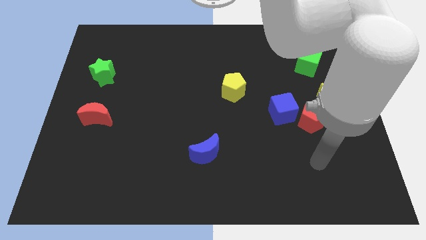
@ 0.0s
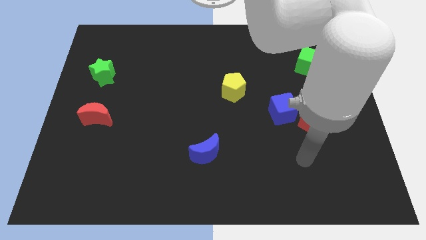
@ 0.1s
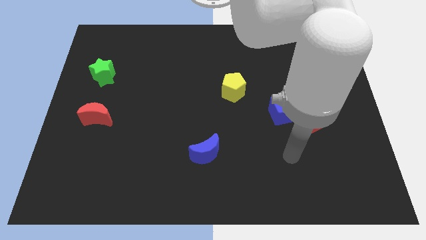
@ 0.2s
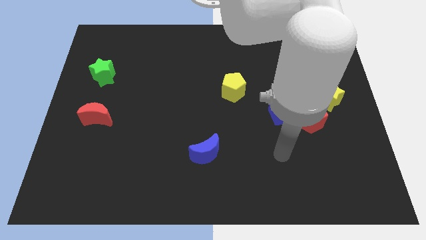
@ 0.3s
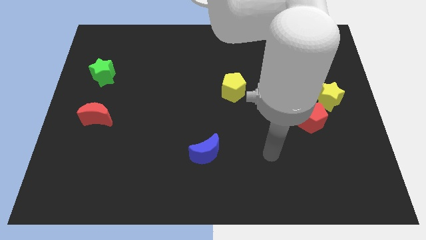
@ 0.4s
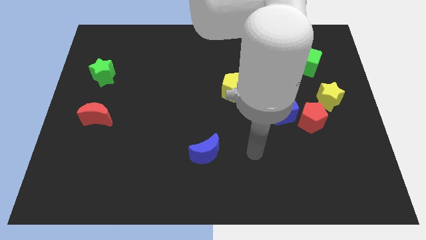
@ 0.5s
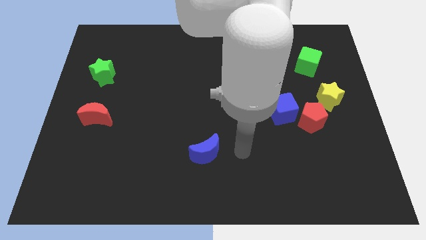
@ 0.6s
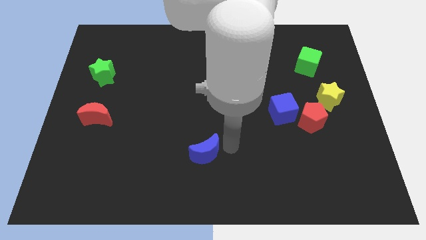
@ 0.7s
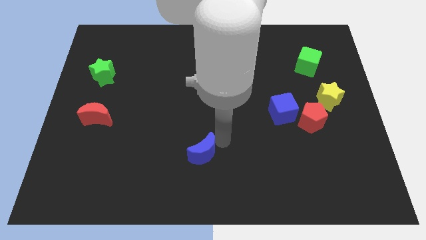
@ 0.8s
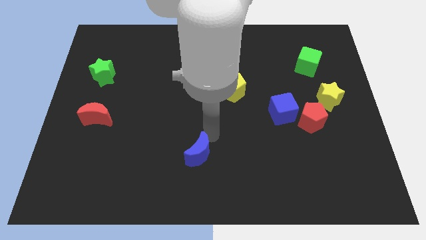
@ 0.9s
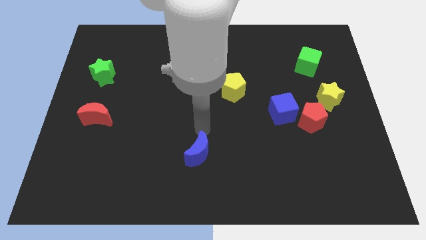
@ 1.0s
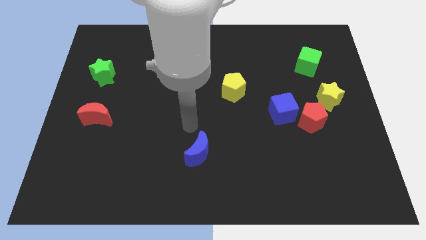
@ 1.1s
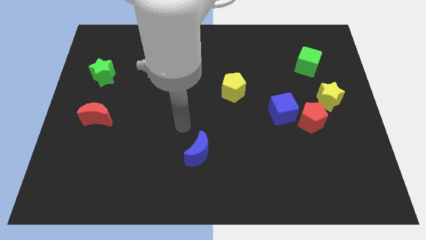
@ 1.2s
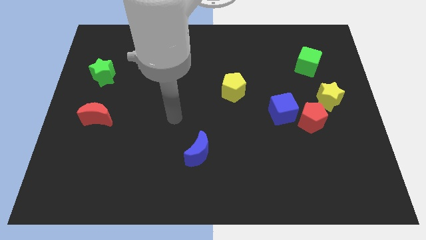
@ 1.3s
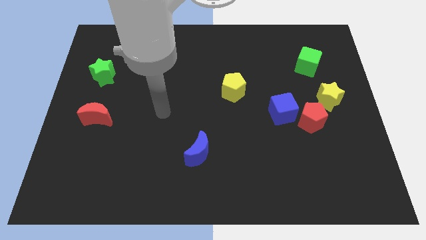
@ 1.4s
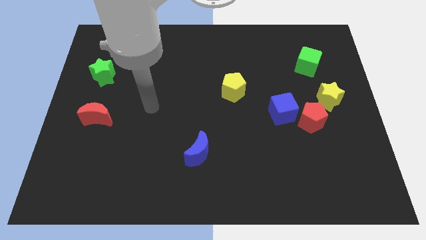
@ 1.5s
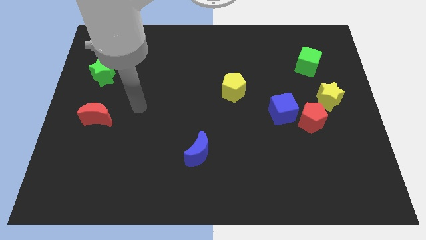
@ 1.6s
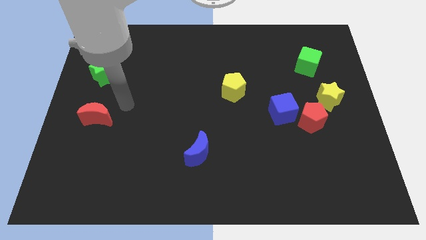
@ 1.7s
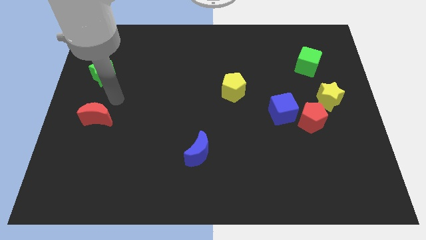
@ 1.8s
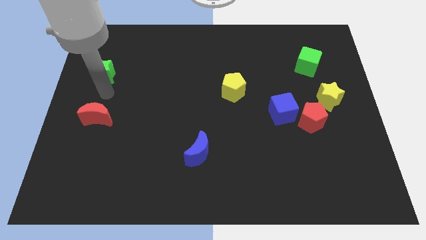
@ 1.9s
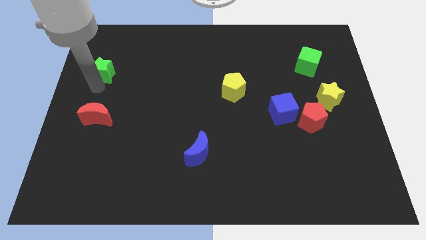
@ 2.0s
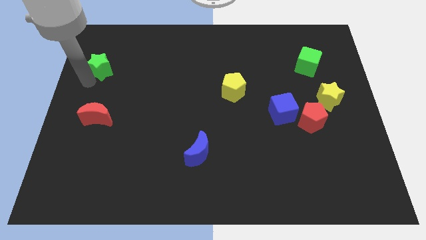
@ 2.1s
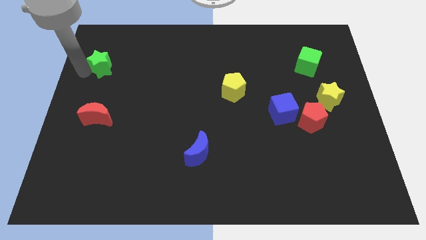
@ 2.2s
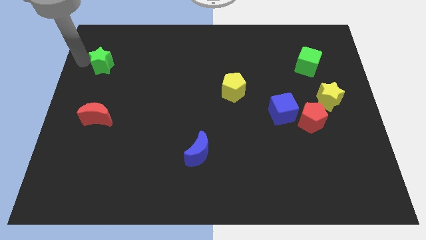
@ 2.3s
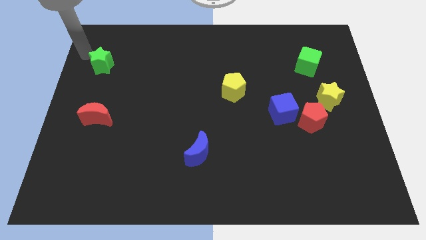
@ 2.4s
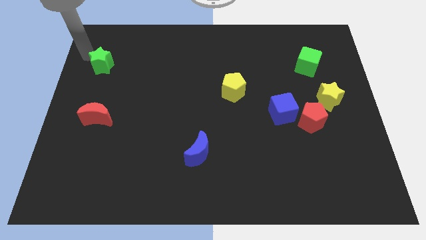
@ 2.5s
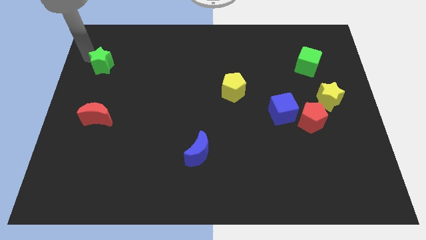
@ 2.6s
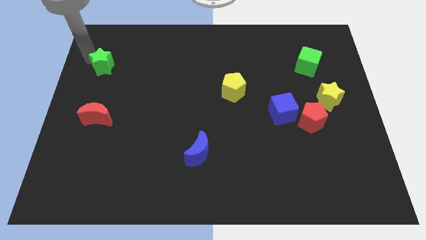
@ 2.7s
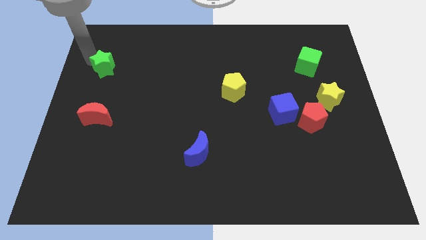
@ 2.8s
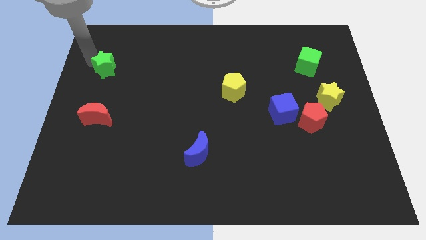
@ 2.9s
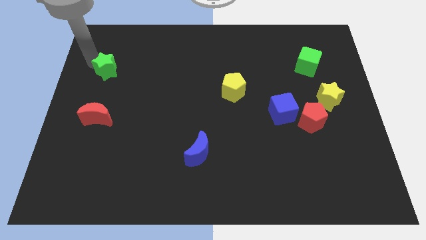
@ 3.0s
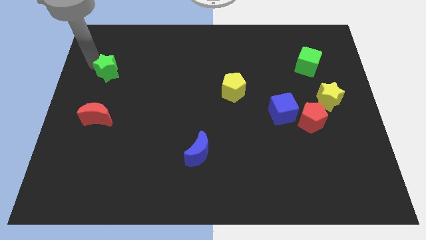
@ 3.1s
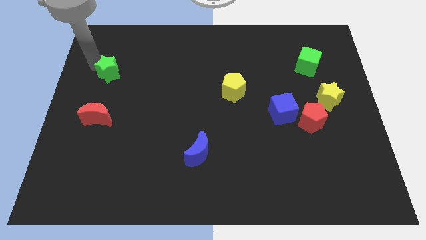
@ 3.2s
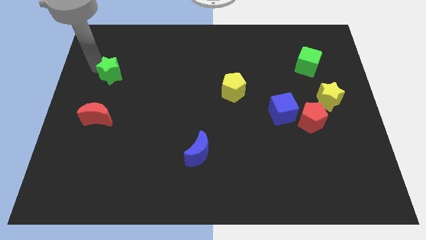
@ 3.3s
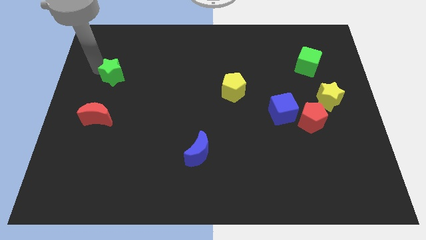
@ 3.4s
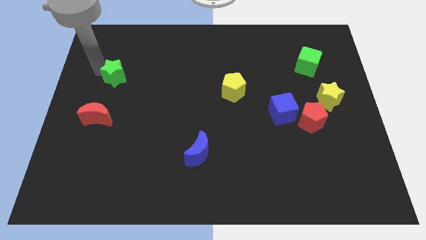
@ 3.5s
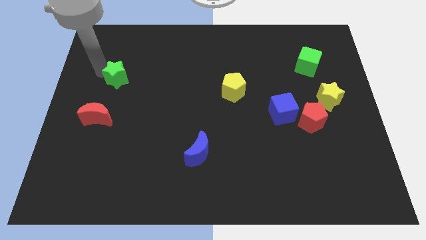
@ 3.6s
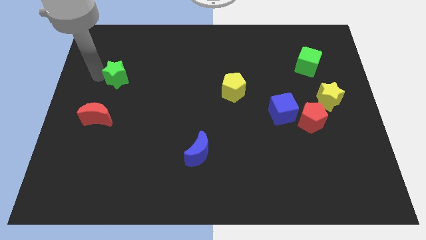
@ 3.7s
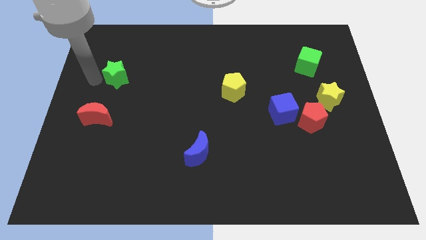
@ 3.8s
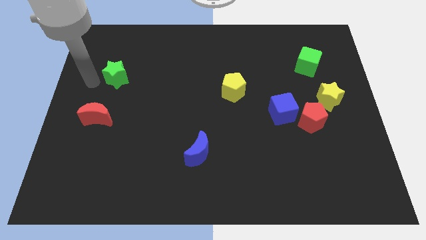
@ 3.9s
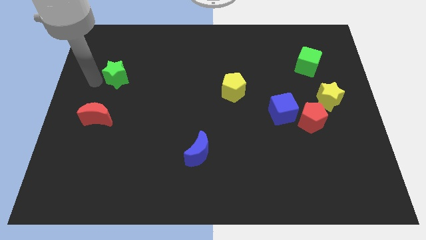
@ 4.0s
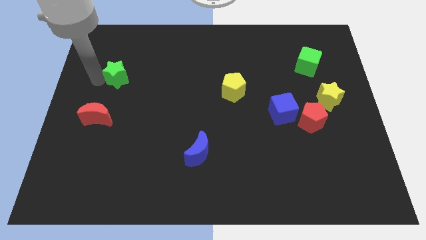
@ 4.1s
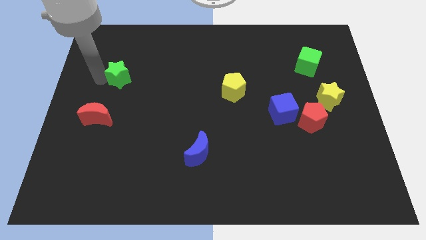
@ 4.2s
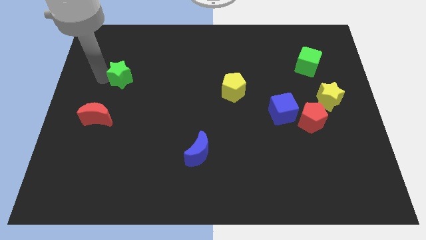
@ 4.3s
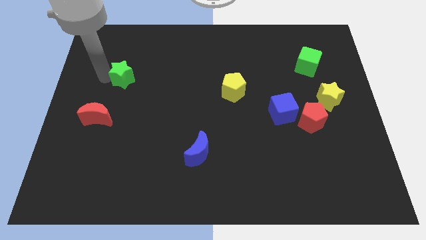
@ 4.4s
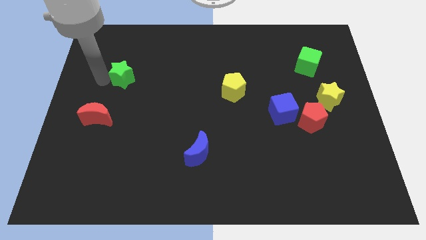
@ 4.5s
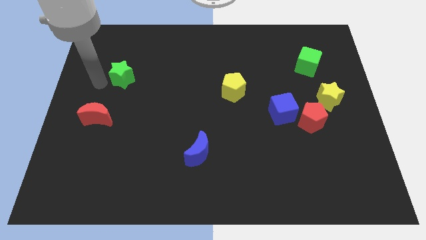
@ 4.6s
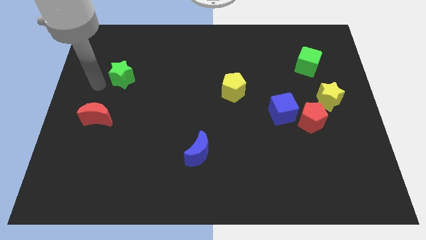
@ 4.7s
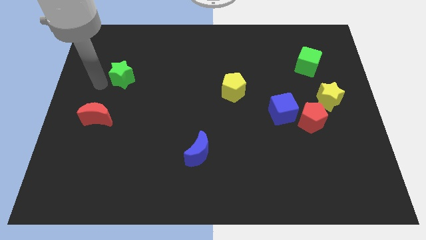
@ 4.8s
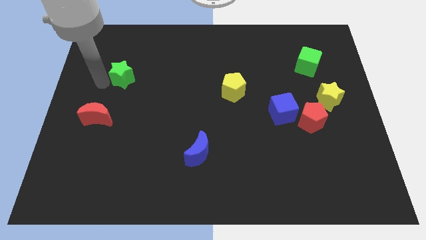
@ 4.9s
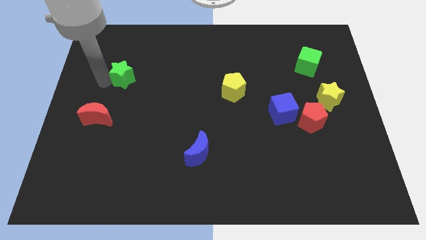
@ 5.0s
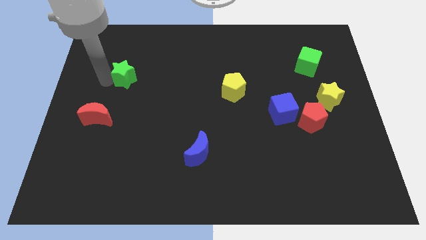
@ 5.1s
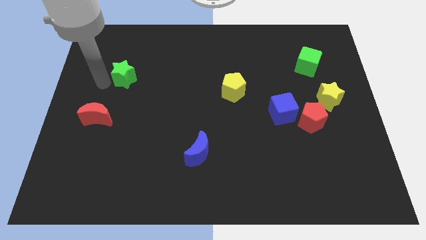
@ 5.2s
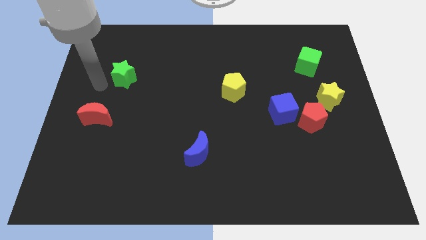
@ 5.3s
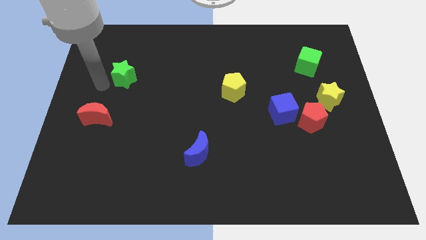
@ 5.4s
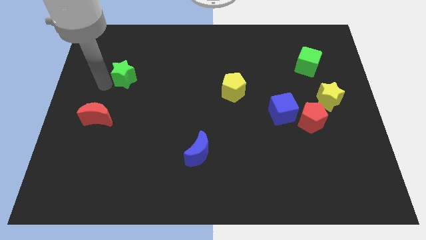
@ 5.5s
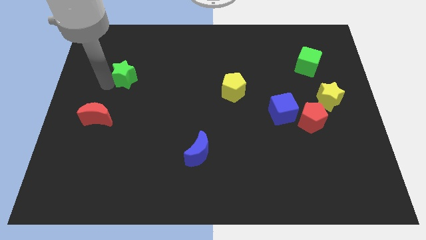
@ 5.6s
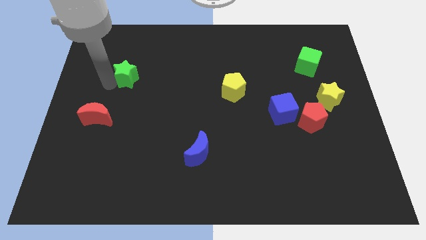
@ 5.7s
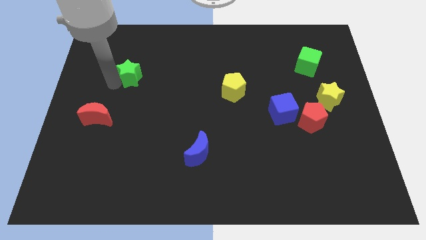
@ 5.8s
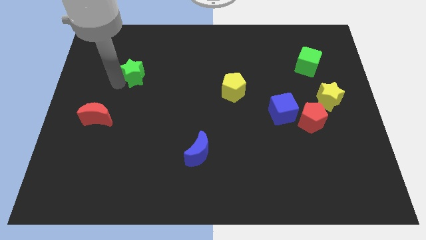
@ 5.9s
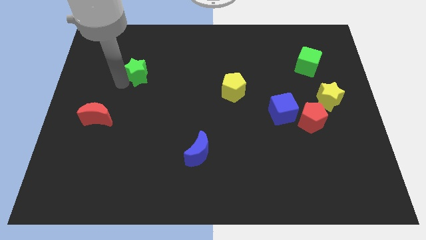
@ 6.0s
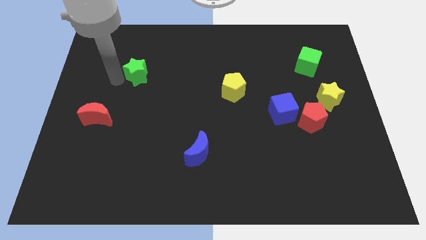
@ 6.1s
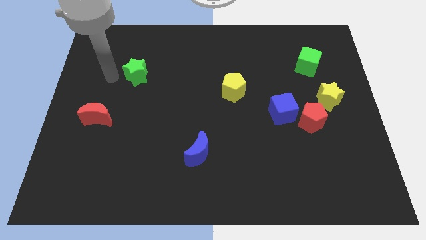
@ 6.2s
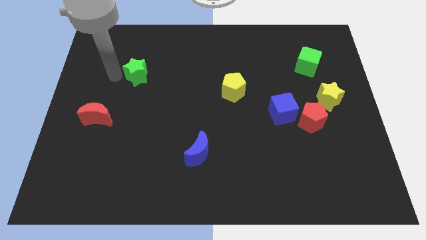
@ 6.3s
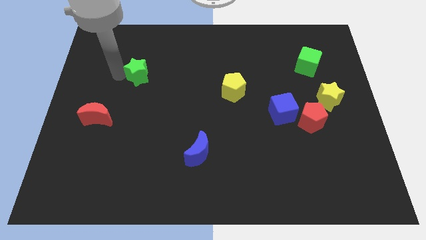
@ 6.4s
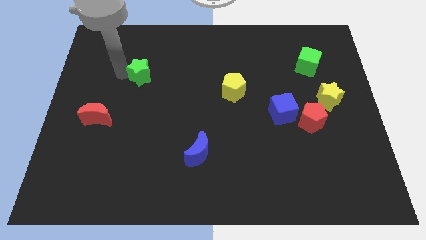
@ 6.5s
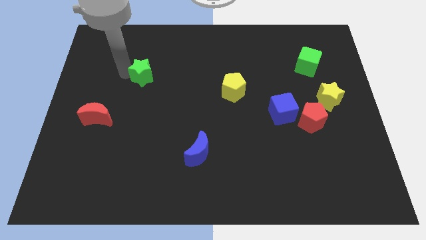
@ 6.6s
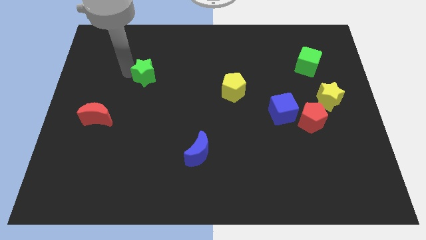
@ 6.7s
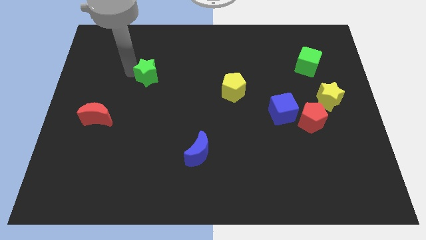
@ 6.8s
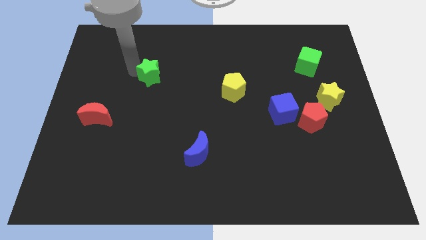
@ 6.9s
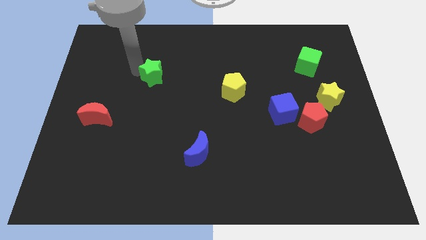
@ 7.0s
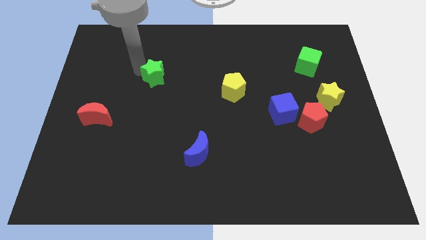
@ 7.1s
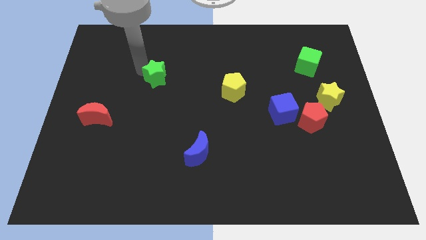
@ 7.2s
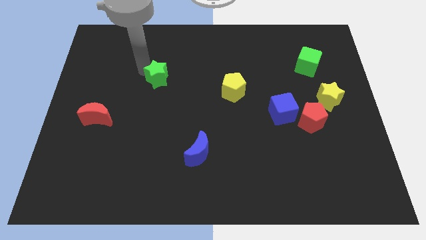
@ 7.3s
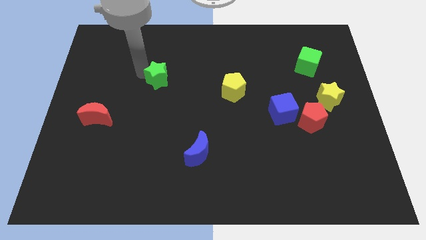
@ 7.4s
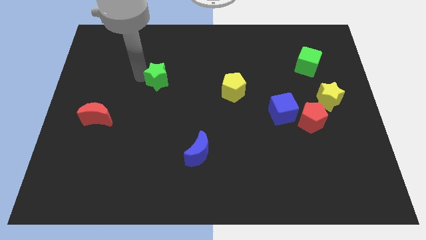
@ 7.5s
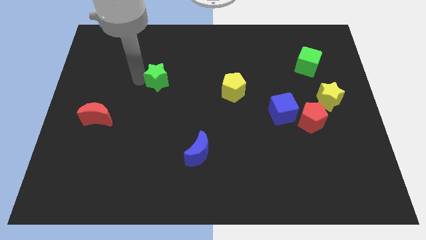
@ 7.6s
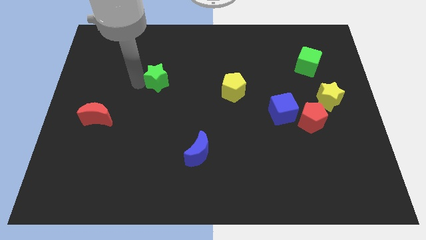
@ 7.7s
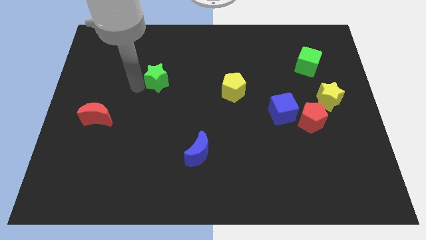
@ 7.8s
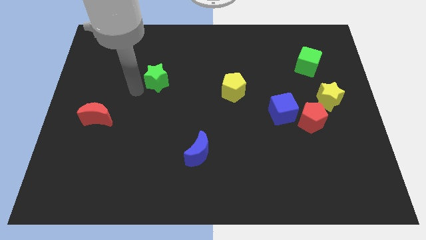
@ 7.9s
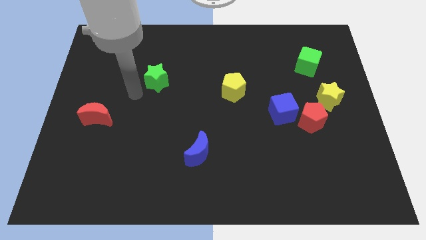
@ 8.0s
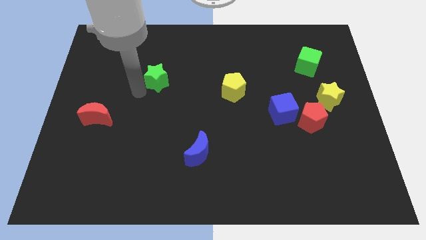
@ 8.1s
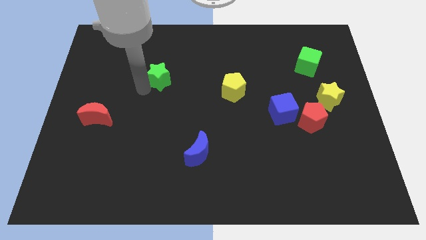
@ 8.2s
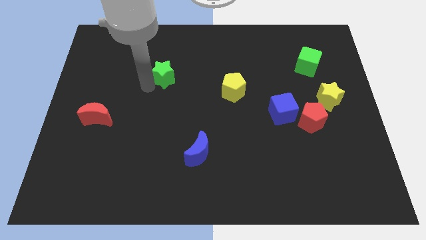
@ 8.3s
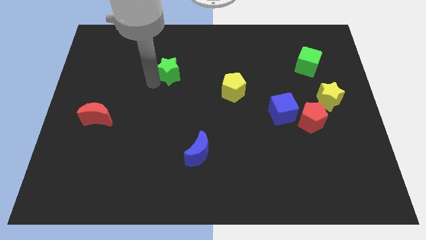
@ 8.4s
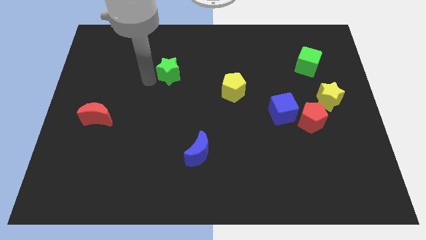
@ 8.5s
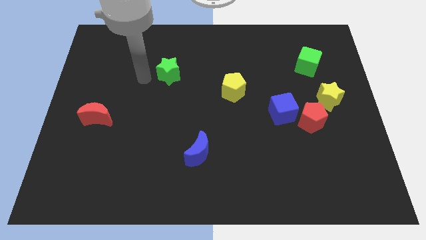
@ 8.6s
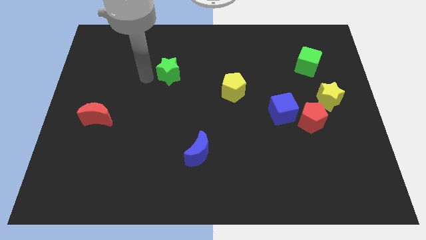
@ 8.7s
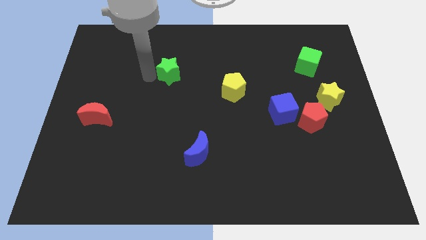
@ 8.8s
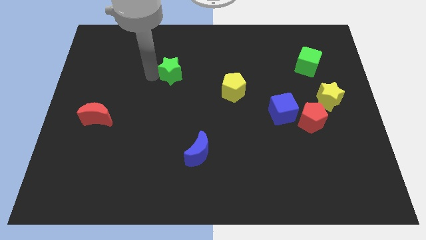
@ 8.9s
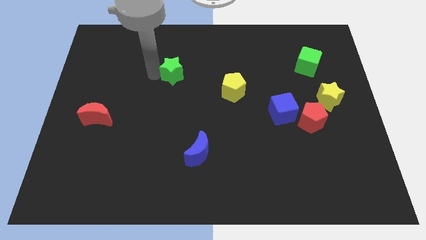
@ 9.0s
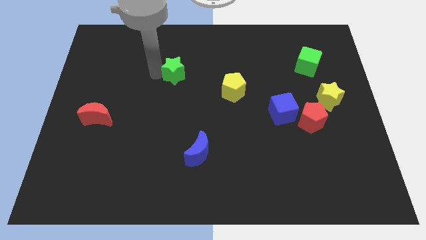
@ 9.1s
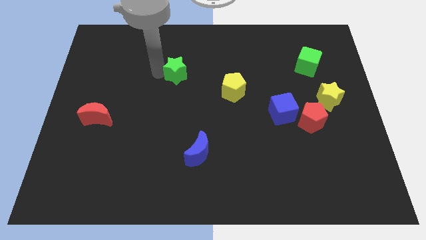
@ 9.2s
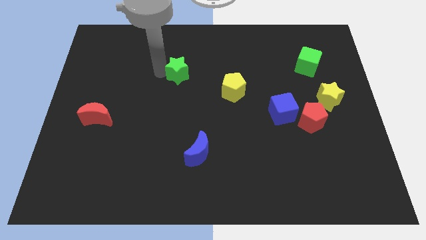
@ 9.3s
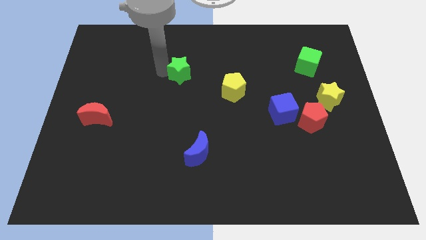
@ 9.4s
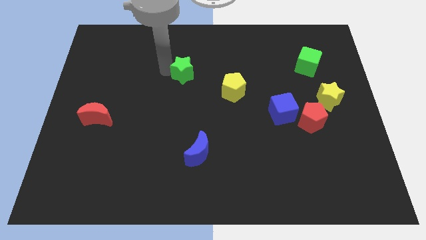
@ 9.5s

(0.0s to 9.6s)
push the green star to the right
